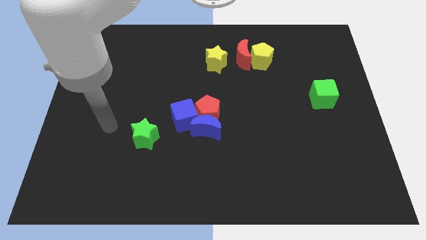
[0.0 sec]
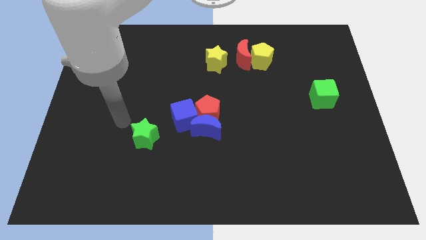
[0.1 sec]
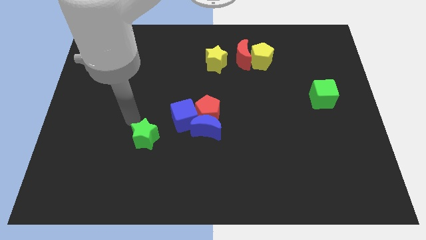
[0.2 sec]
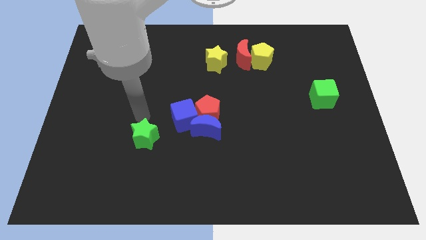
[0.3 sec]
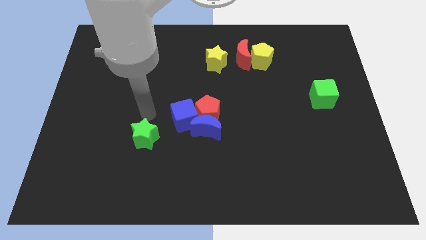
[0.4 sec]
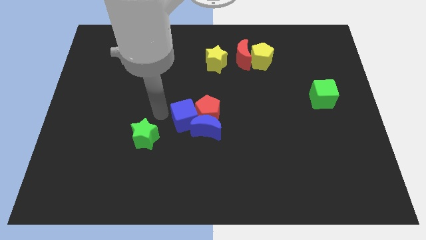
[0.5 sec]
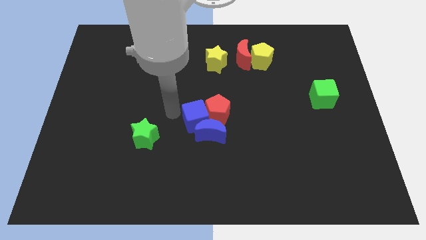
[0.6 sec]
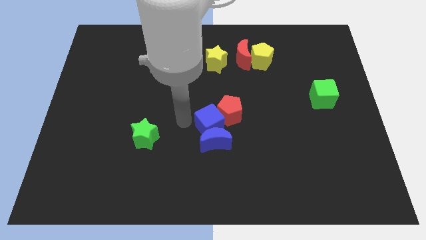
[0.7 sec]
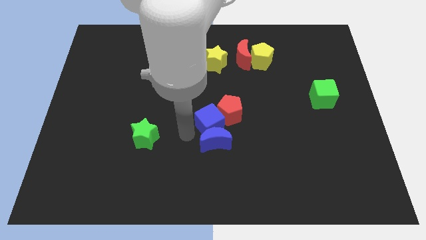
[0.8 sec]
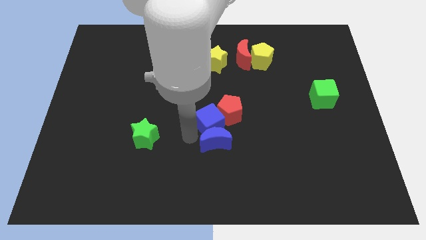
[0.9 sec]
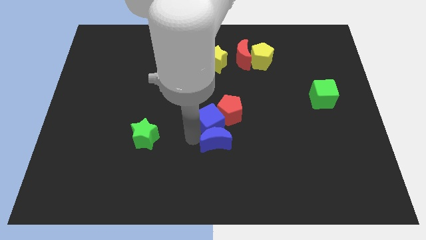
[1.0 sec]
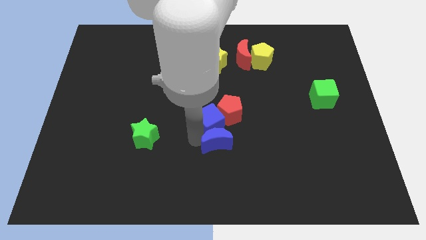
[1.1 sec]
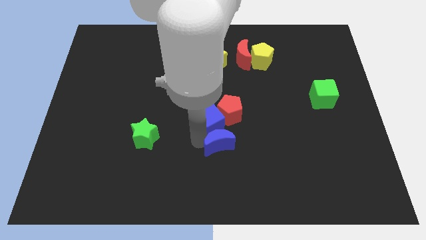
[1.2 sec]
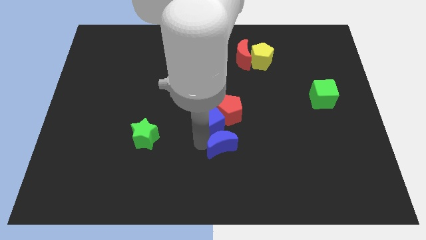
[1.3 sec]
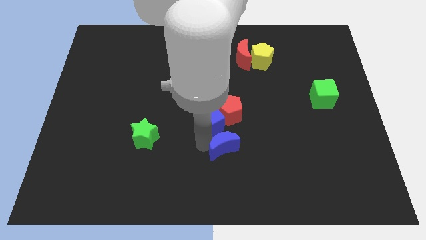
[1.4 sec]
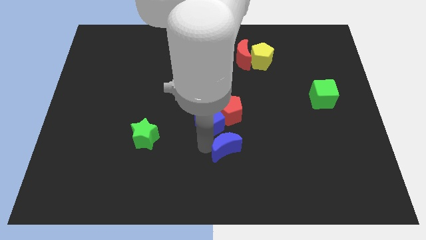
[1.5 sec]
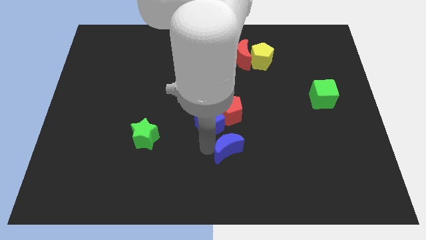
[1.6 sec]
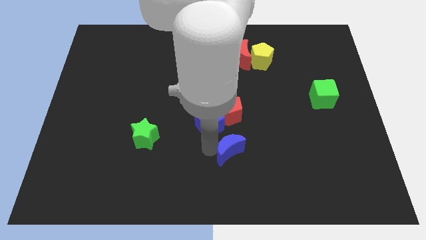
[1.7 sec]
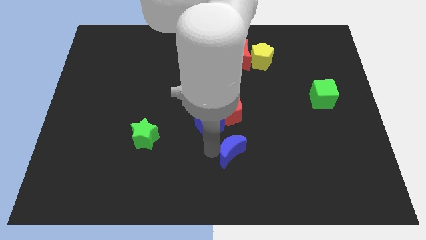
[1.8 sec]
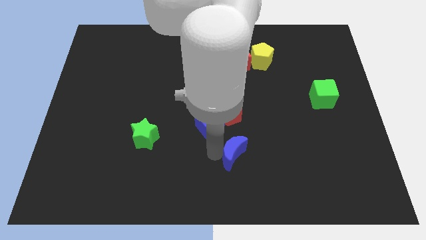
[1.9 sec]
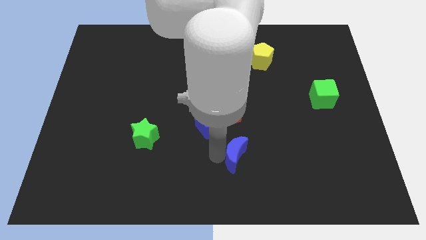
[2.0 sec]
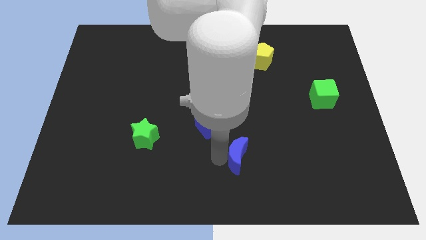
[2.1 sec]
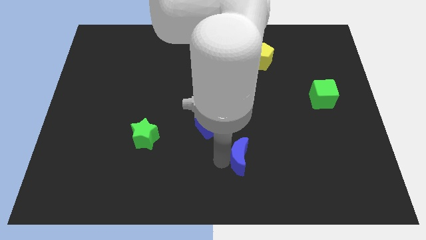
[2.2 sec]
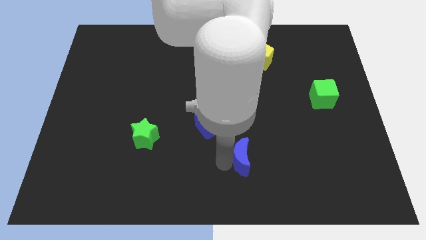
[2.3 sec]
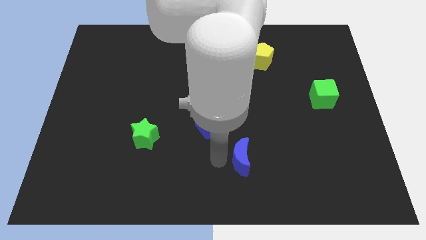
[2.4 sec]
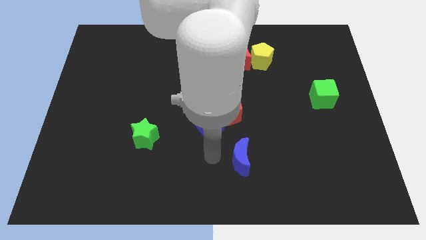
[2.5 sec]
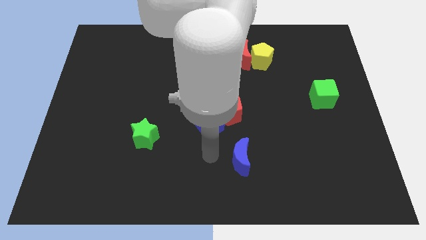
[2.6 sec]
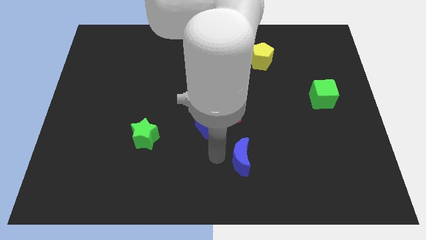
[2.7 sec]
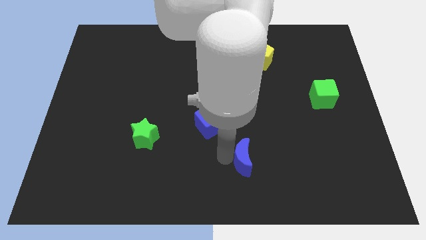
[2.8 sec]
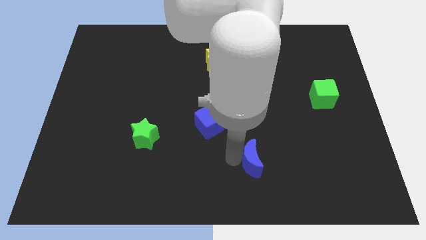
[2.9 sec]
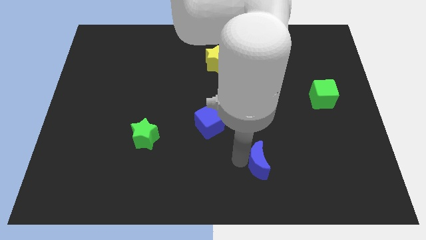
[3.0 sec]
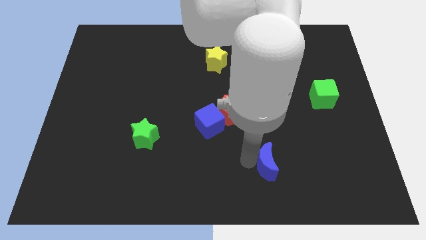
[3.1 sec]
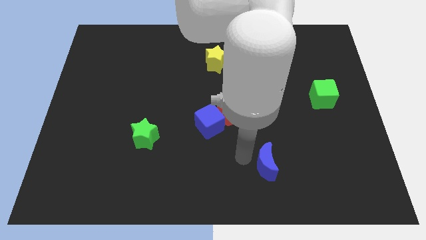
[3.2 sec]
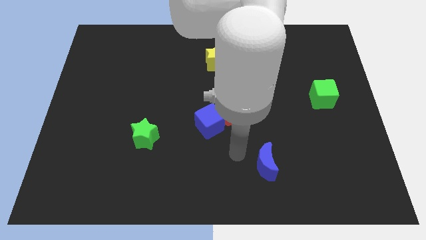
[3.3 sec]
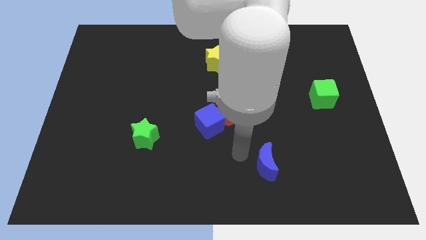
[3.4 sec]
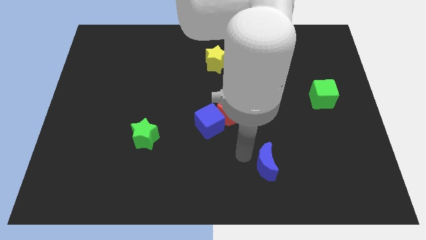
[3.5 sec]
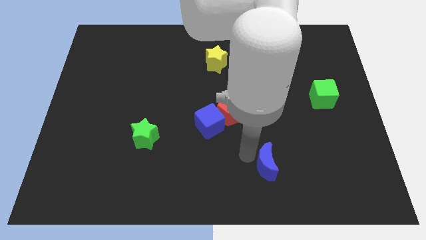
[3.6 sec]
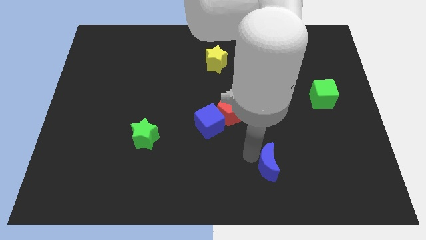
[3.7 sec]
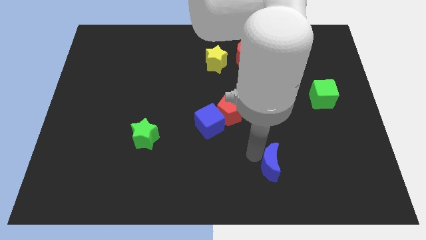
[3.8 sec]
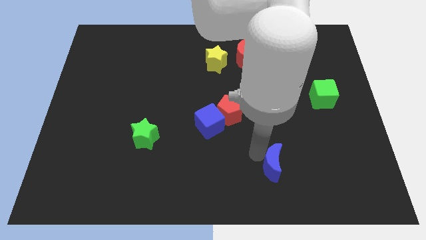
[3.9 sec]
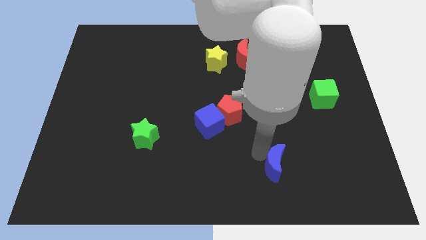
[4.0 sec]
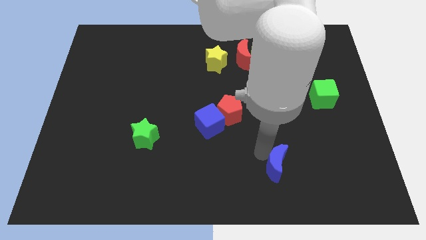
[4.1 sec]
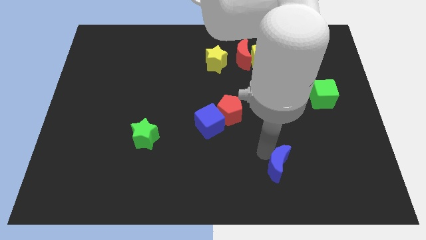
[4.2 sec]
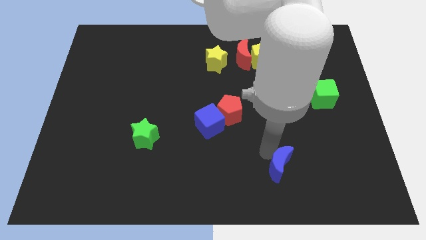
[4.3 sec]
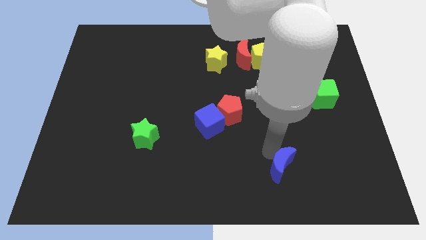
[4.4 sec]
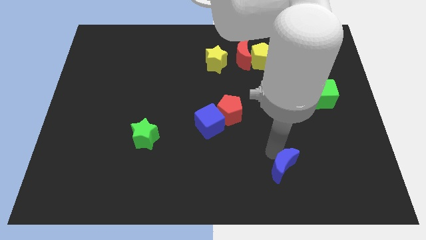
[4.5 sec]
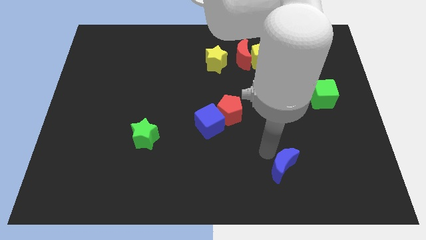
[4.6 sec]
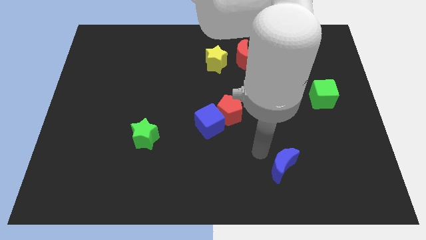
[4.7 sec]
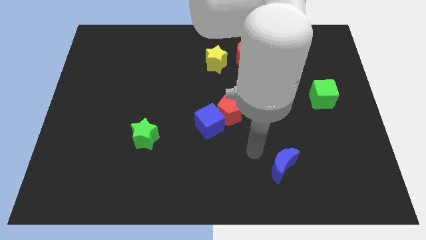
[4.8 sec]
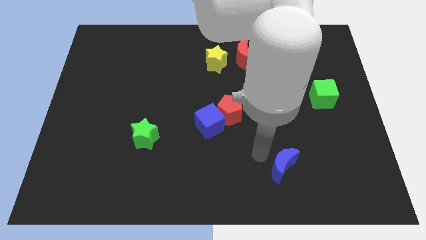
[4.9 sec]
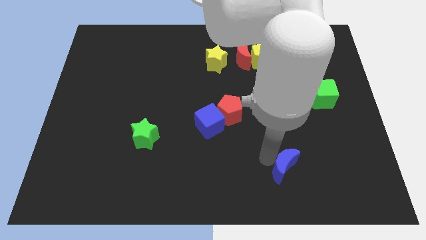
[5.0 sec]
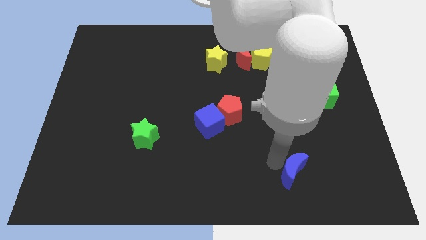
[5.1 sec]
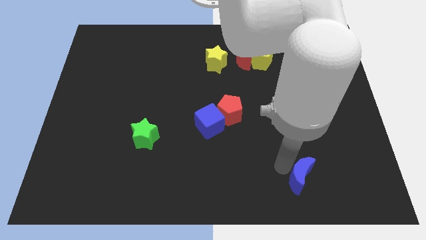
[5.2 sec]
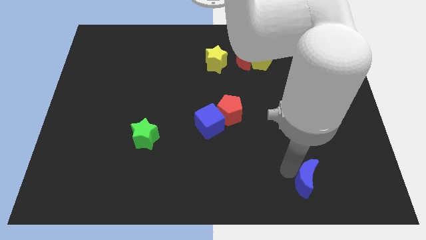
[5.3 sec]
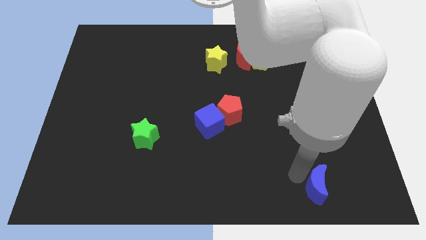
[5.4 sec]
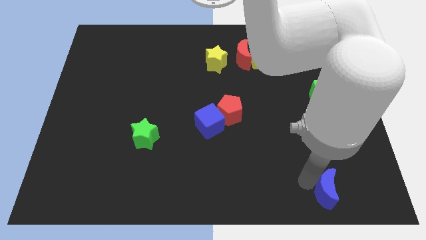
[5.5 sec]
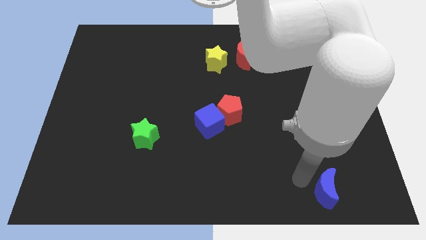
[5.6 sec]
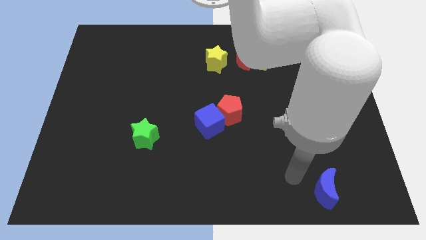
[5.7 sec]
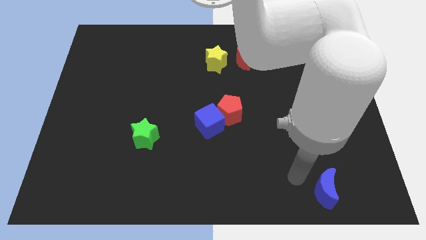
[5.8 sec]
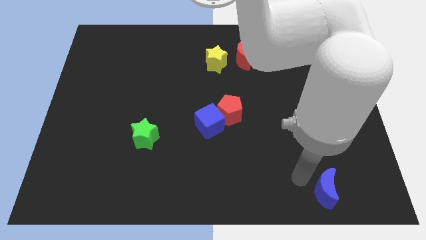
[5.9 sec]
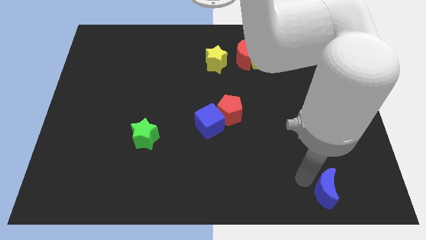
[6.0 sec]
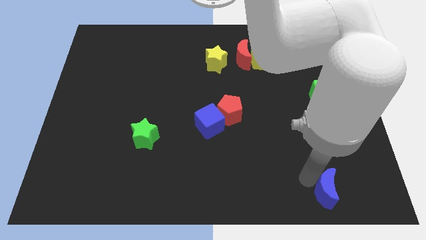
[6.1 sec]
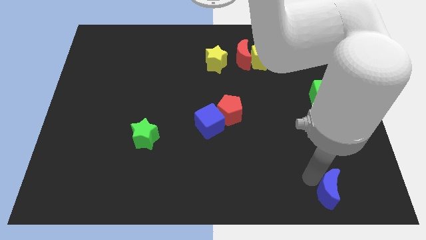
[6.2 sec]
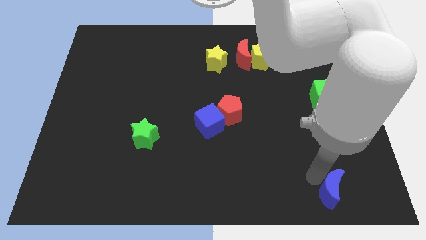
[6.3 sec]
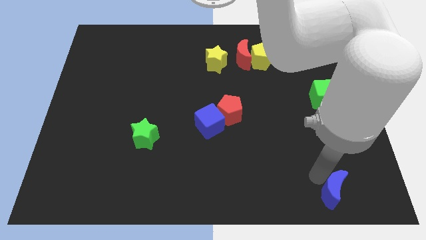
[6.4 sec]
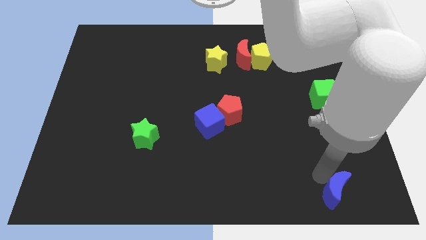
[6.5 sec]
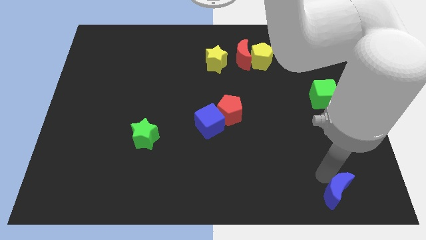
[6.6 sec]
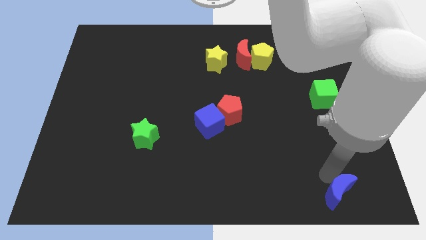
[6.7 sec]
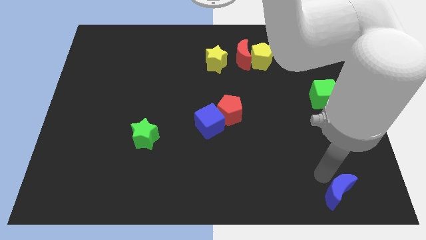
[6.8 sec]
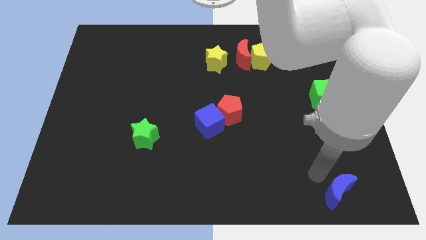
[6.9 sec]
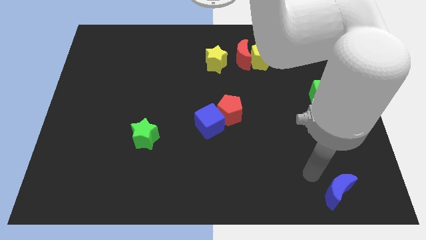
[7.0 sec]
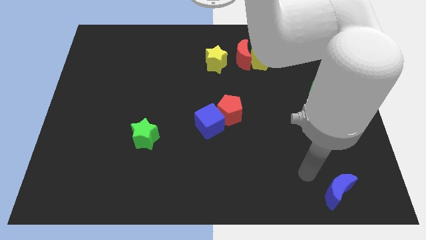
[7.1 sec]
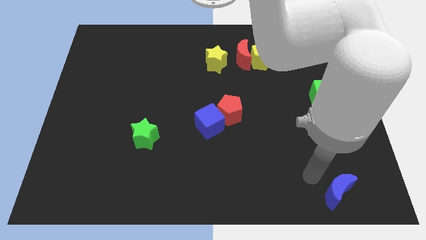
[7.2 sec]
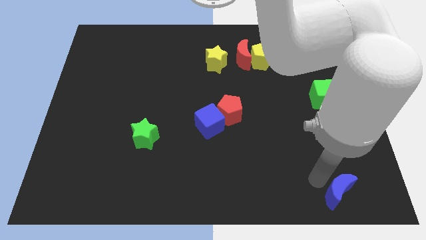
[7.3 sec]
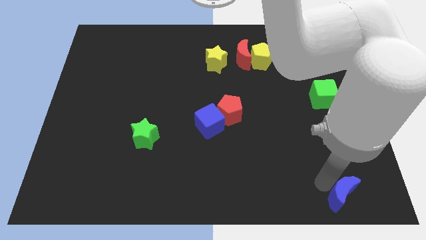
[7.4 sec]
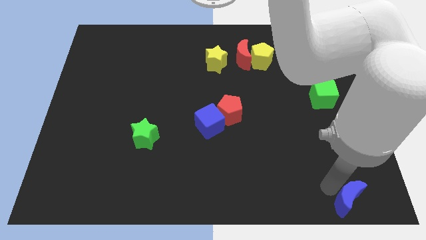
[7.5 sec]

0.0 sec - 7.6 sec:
push the blue moon to the bottom right of the board
